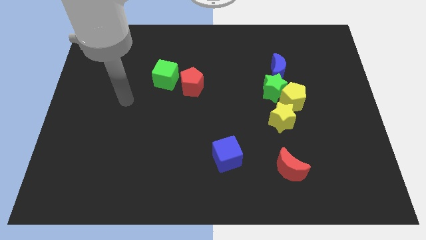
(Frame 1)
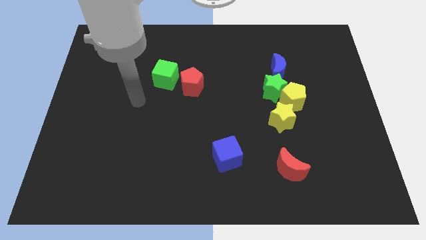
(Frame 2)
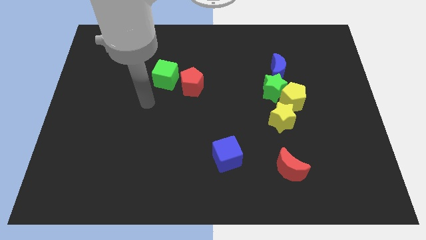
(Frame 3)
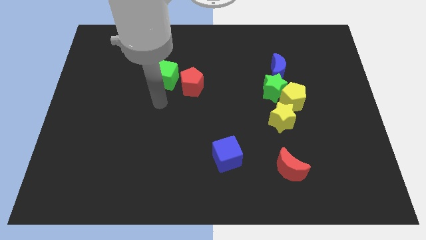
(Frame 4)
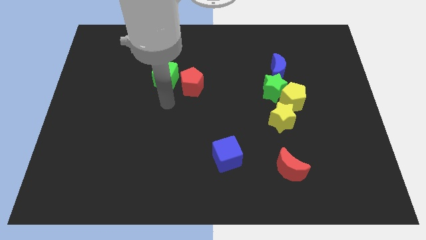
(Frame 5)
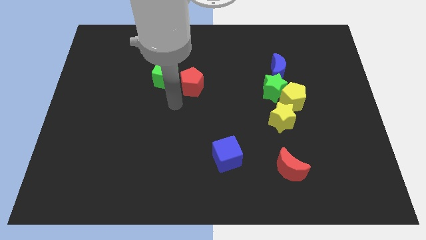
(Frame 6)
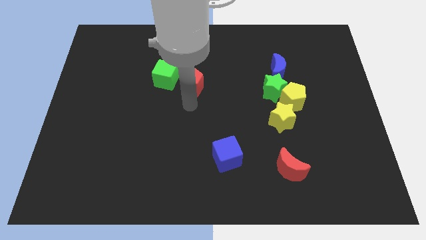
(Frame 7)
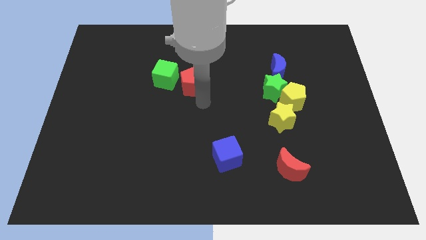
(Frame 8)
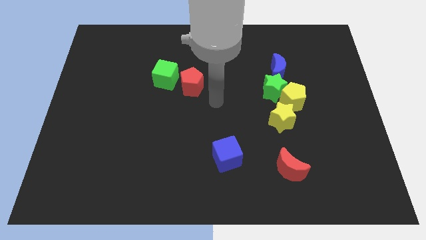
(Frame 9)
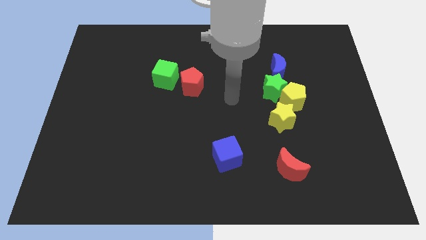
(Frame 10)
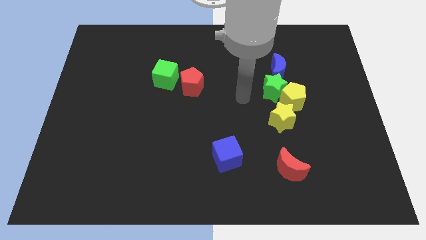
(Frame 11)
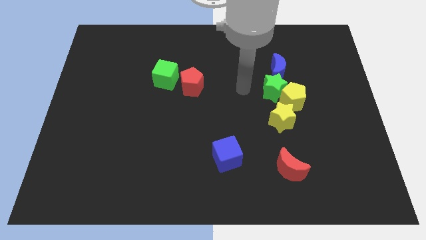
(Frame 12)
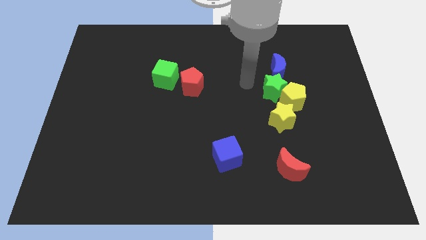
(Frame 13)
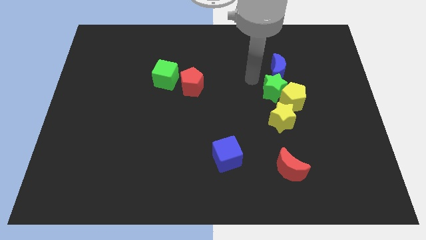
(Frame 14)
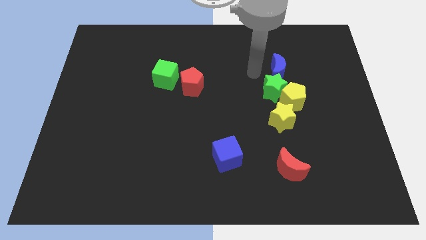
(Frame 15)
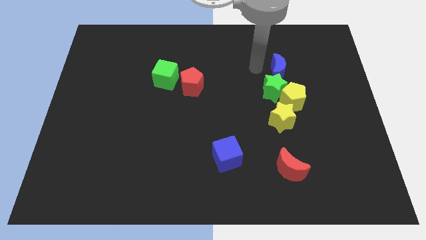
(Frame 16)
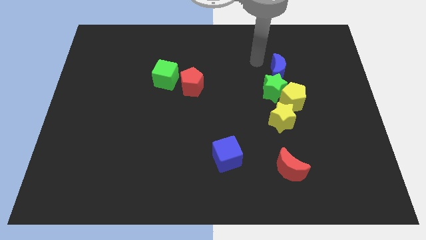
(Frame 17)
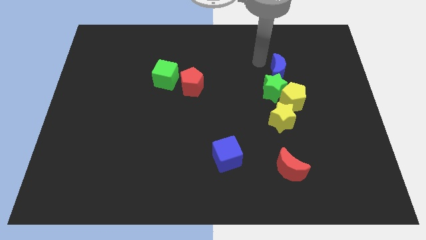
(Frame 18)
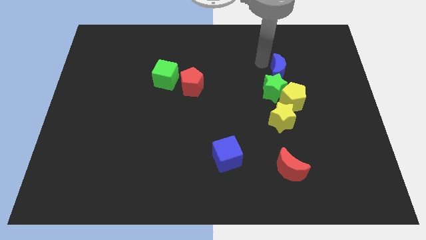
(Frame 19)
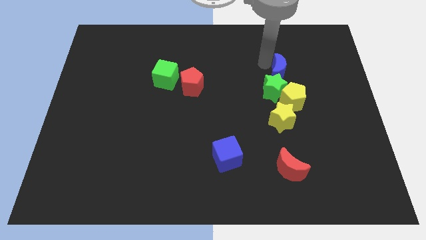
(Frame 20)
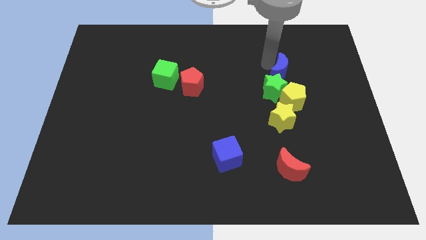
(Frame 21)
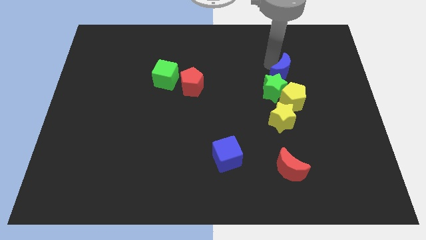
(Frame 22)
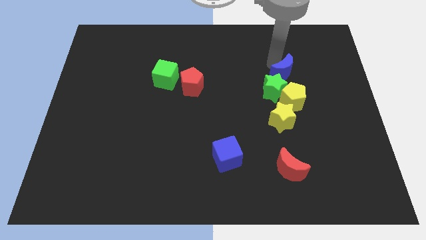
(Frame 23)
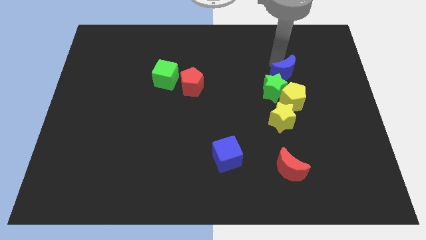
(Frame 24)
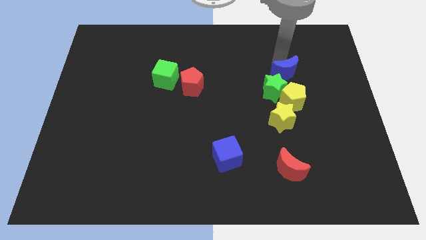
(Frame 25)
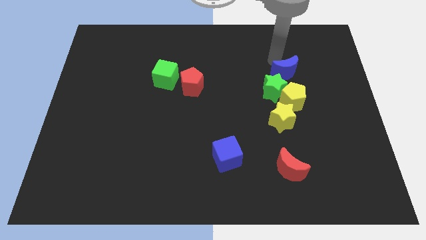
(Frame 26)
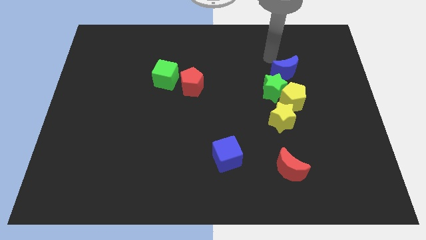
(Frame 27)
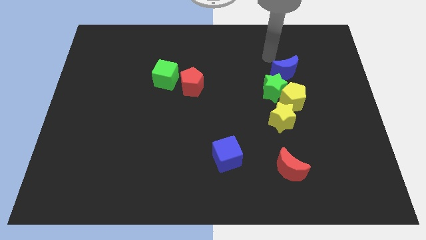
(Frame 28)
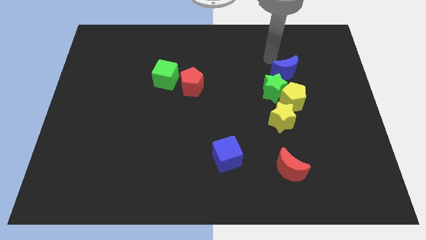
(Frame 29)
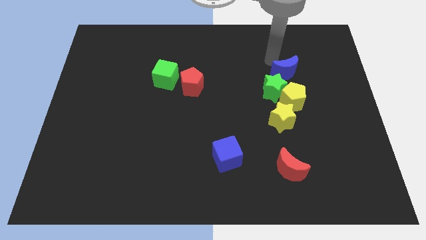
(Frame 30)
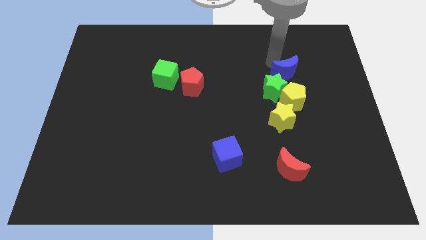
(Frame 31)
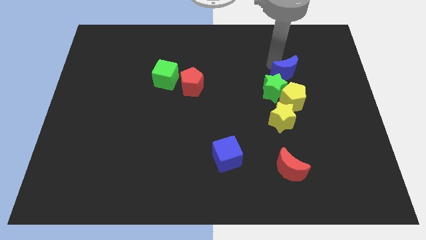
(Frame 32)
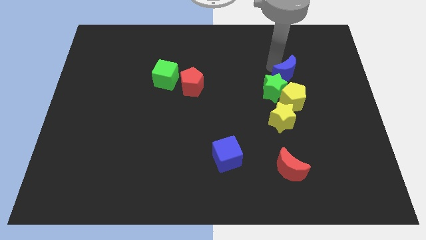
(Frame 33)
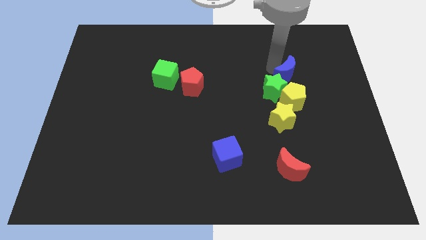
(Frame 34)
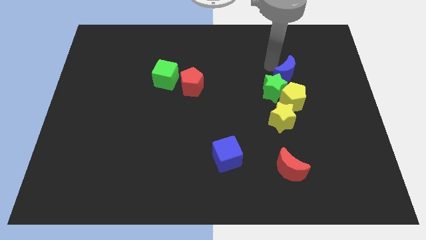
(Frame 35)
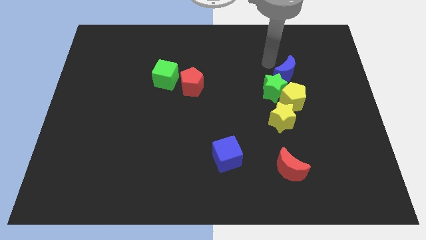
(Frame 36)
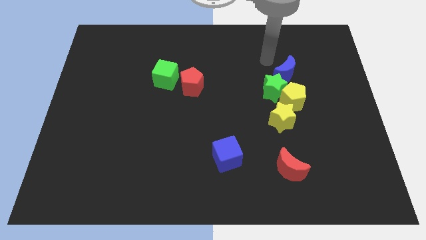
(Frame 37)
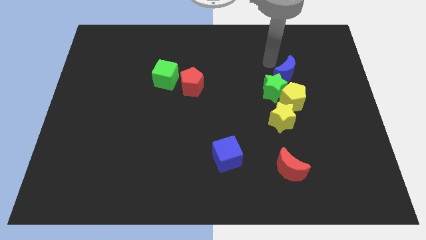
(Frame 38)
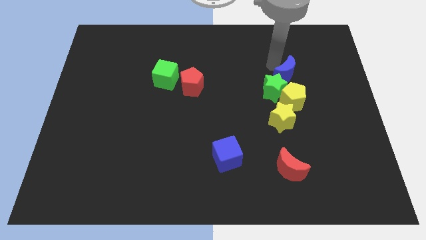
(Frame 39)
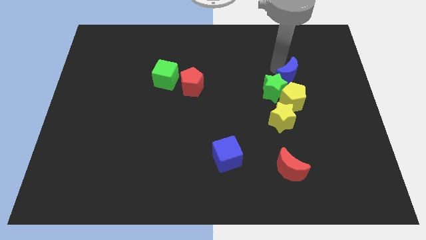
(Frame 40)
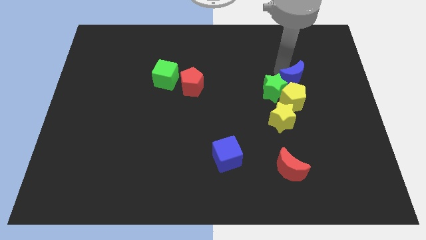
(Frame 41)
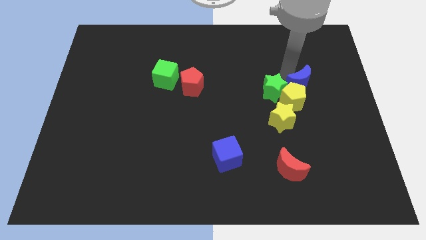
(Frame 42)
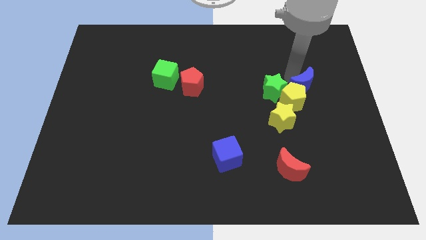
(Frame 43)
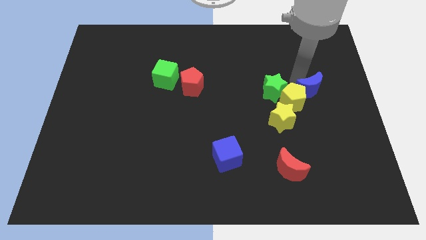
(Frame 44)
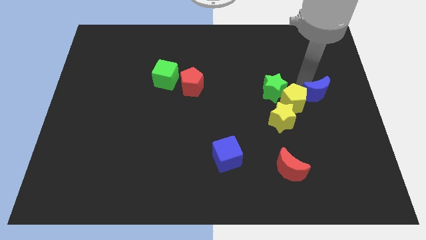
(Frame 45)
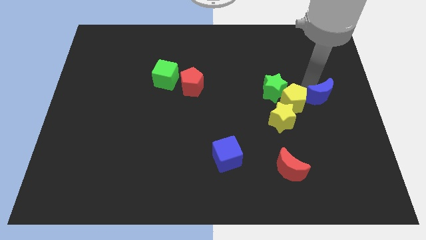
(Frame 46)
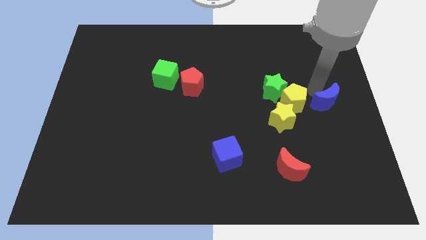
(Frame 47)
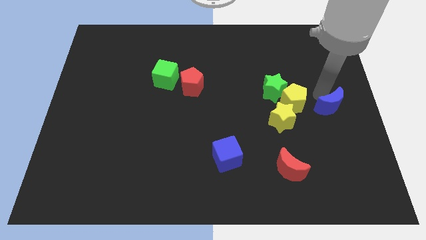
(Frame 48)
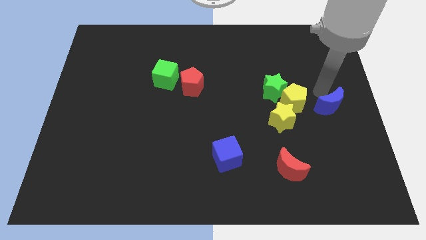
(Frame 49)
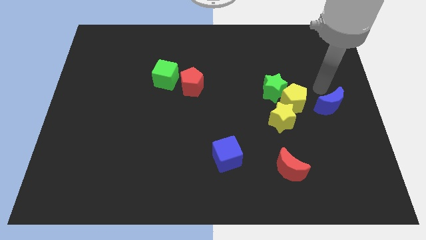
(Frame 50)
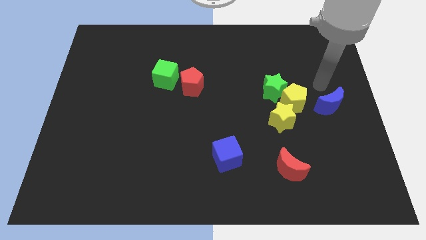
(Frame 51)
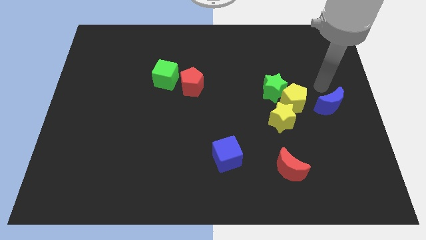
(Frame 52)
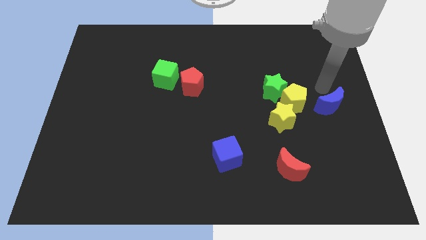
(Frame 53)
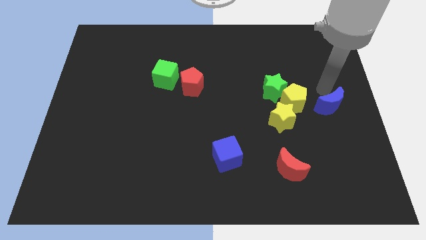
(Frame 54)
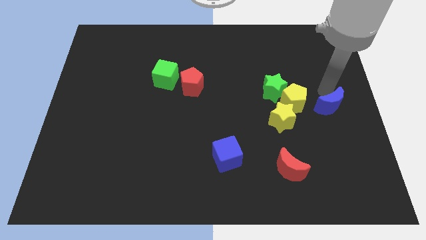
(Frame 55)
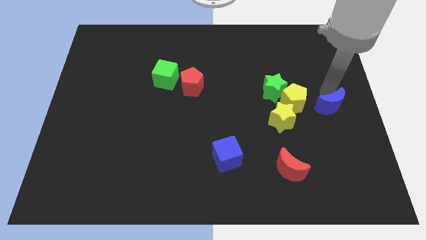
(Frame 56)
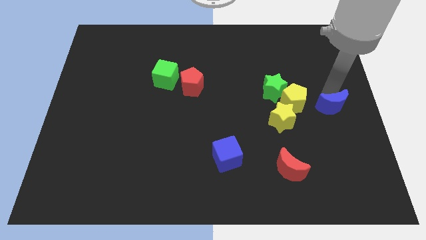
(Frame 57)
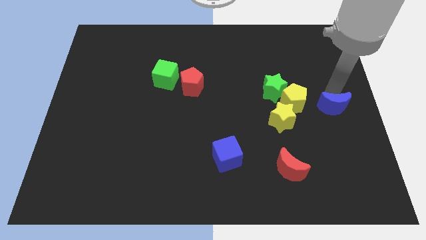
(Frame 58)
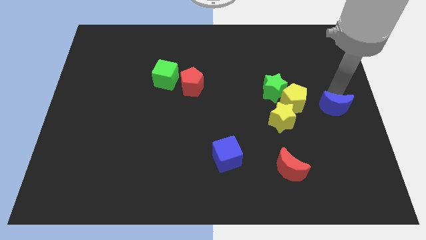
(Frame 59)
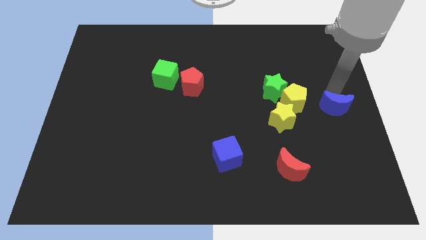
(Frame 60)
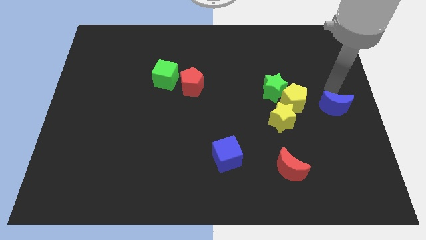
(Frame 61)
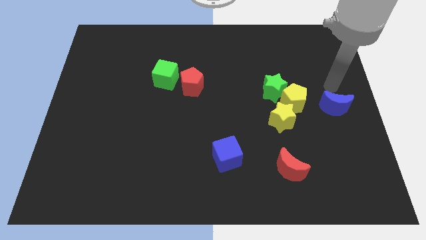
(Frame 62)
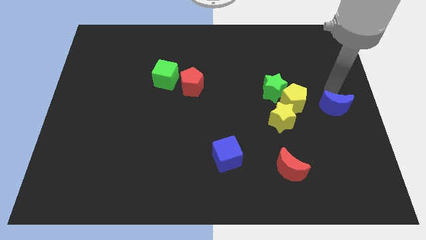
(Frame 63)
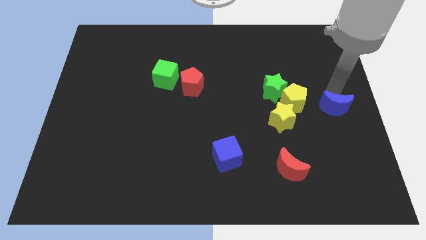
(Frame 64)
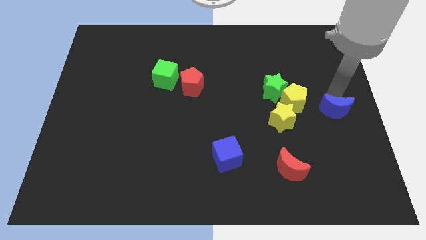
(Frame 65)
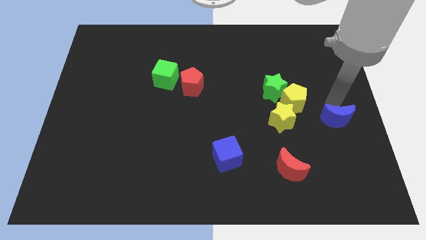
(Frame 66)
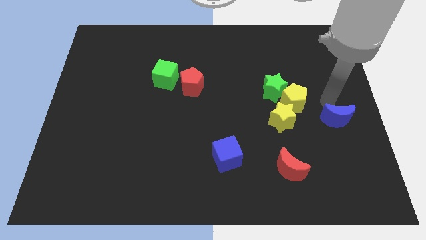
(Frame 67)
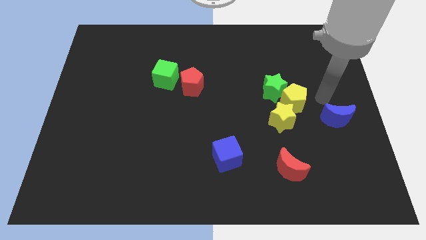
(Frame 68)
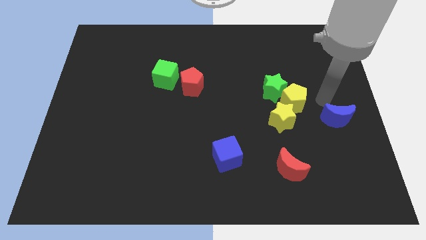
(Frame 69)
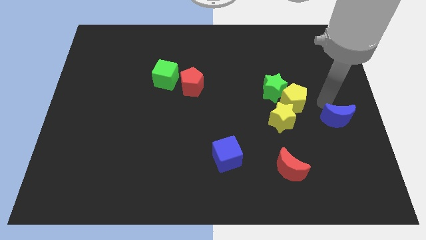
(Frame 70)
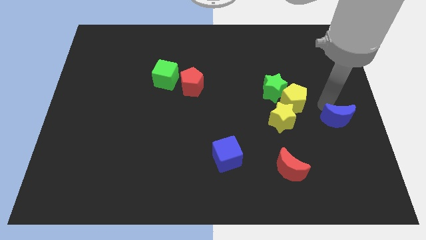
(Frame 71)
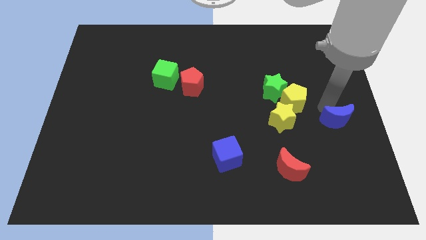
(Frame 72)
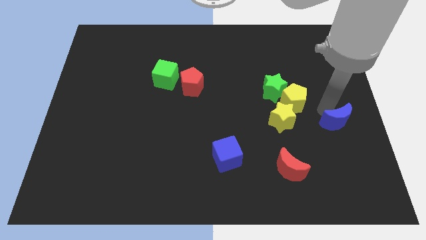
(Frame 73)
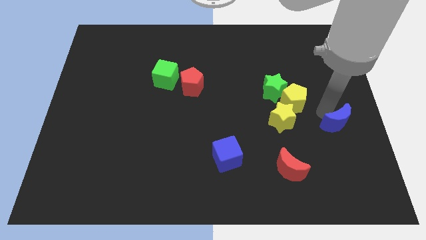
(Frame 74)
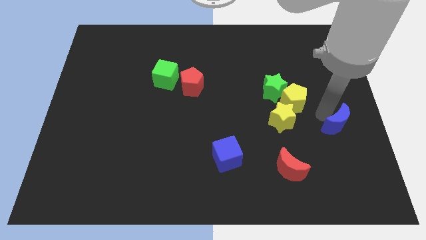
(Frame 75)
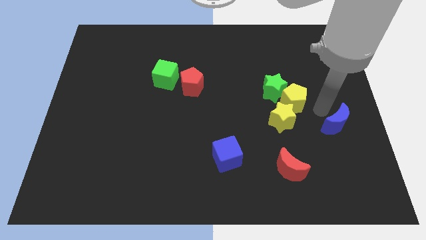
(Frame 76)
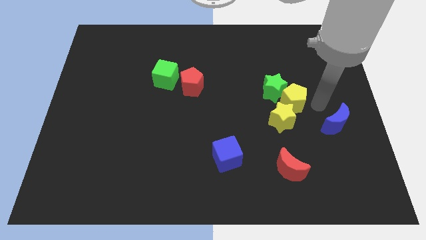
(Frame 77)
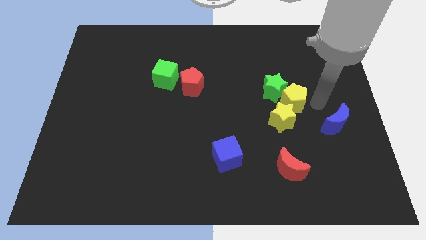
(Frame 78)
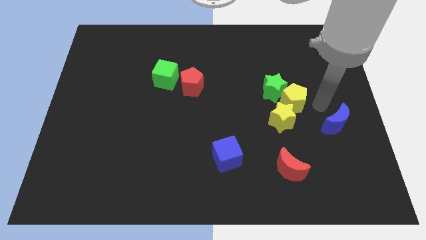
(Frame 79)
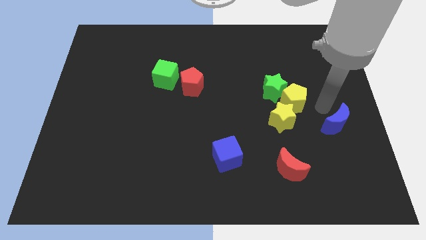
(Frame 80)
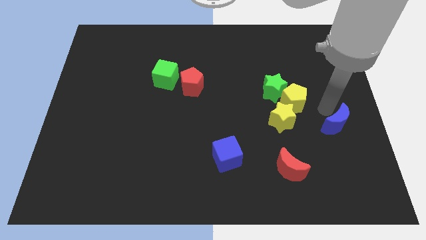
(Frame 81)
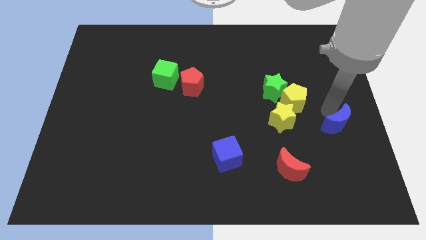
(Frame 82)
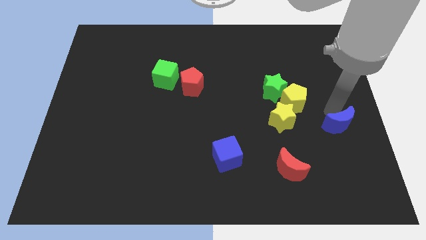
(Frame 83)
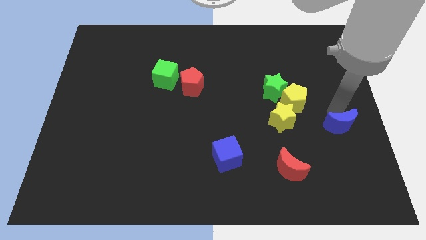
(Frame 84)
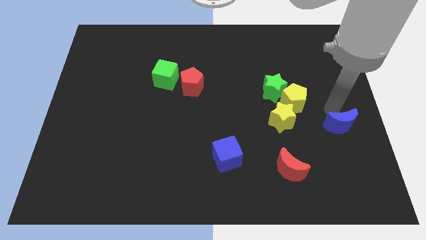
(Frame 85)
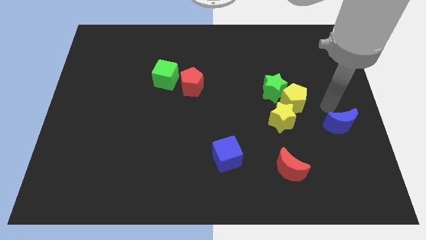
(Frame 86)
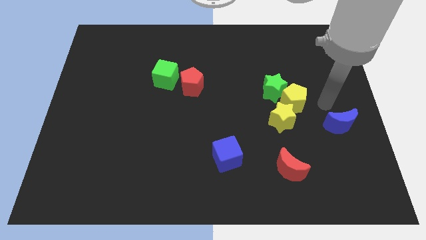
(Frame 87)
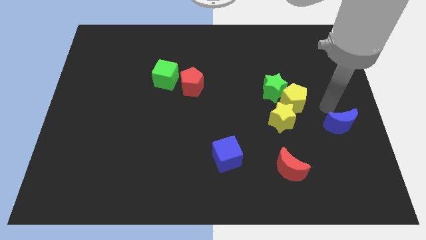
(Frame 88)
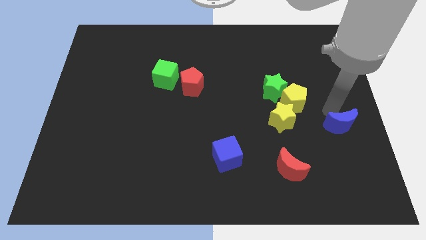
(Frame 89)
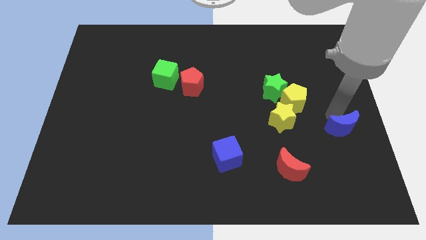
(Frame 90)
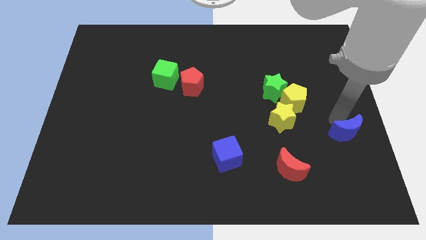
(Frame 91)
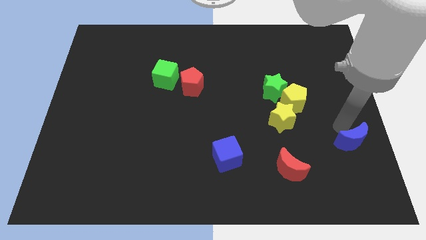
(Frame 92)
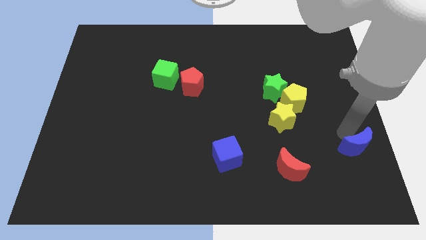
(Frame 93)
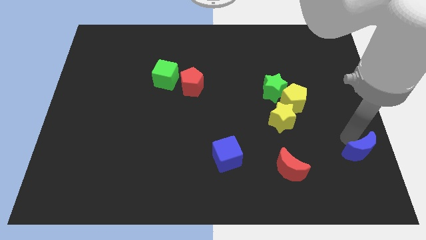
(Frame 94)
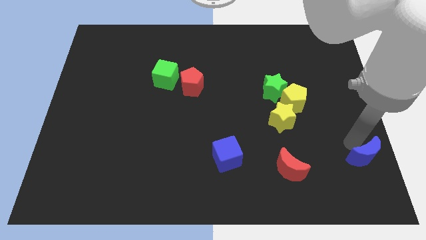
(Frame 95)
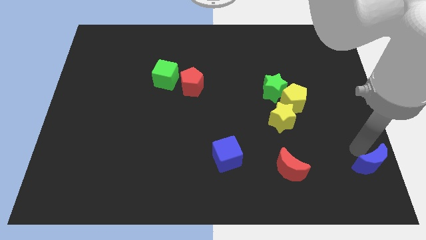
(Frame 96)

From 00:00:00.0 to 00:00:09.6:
push the blue moon to the bottom right of the board
